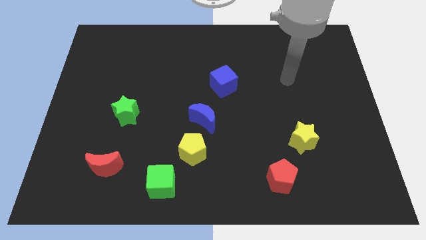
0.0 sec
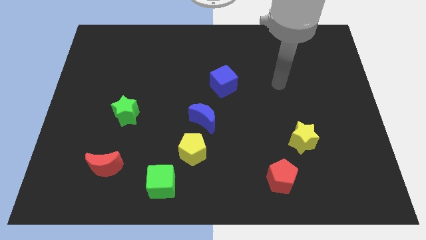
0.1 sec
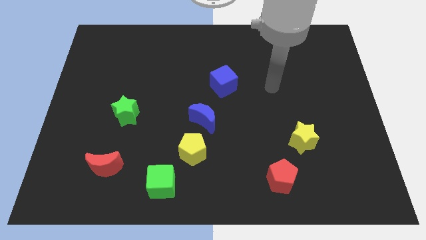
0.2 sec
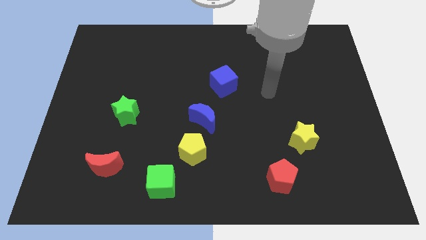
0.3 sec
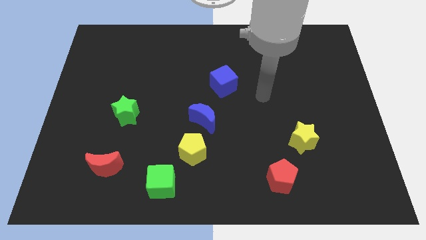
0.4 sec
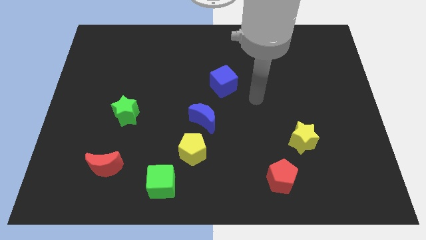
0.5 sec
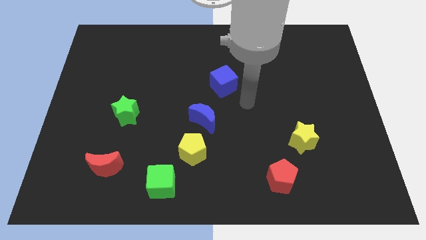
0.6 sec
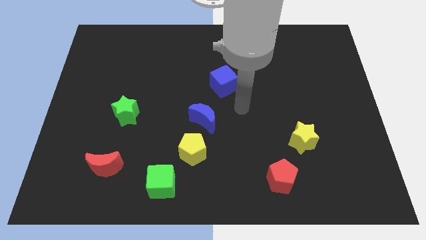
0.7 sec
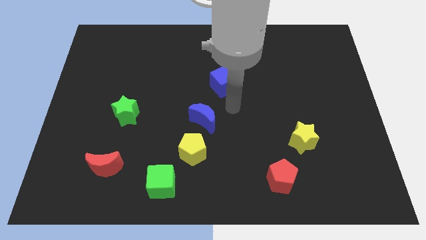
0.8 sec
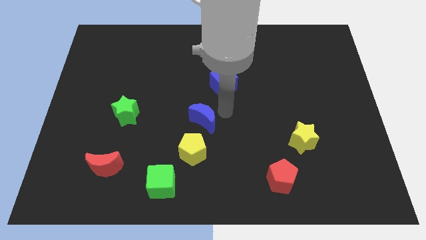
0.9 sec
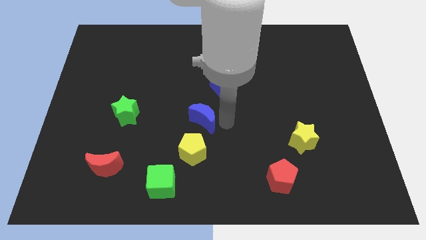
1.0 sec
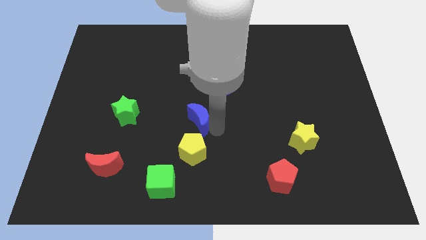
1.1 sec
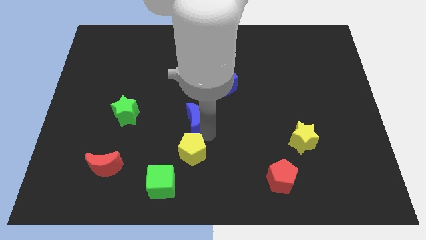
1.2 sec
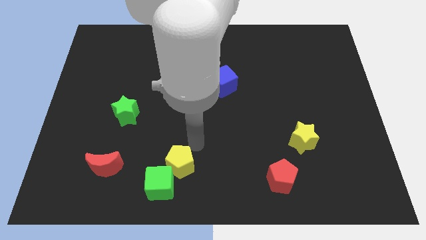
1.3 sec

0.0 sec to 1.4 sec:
move the blue moon away from the yellow pentagon

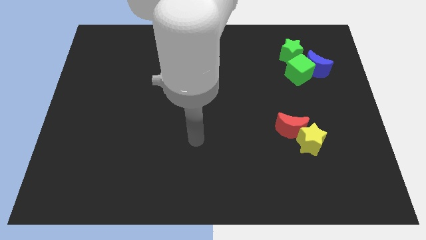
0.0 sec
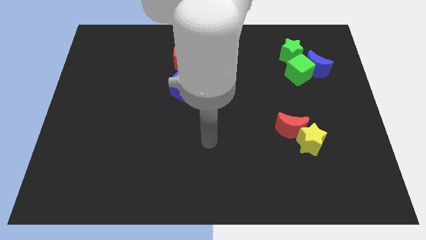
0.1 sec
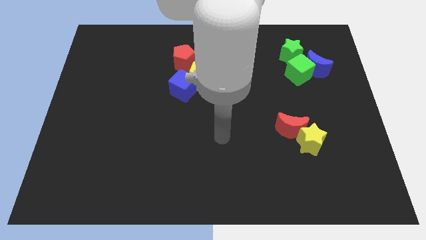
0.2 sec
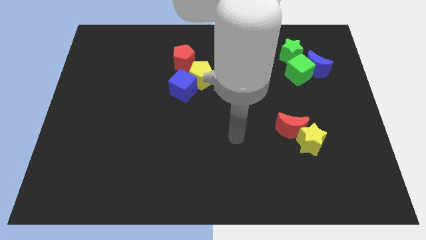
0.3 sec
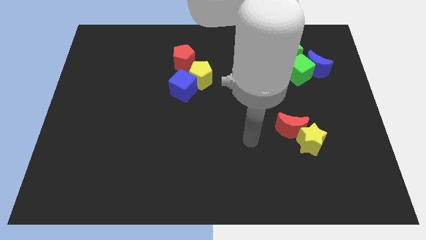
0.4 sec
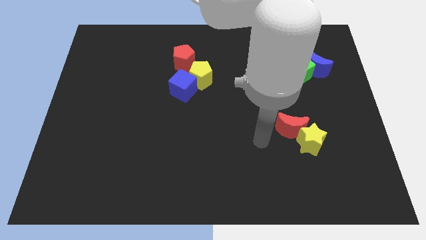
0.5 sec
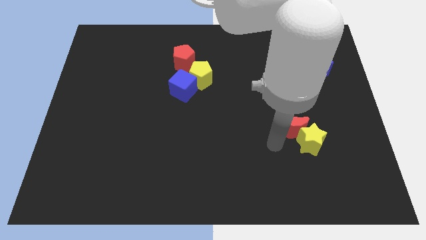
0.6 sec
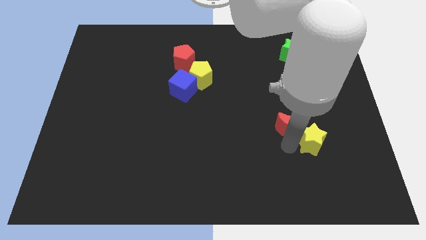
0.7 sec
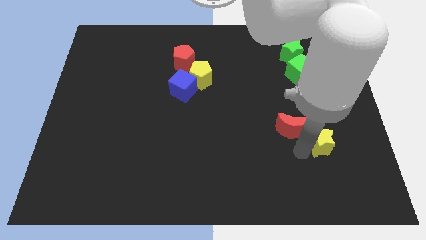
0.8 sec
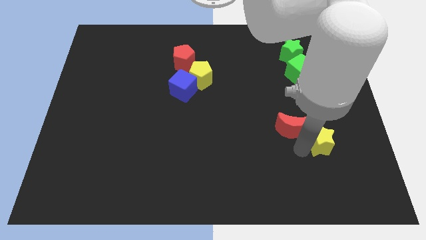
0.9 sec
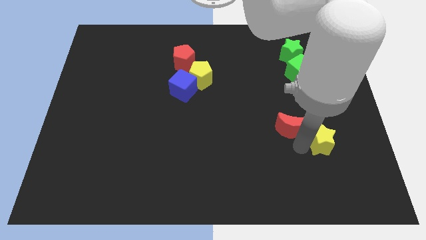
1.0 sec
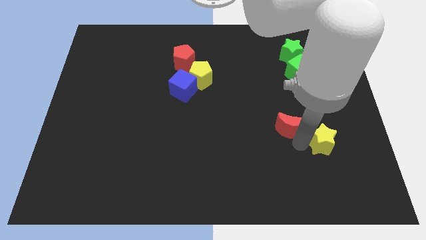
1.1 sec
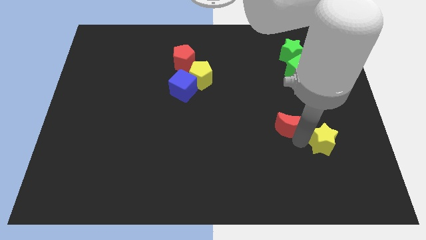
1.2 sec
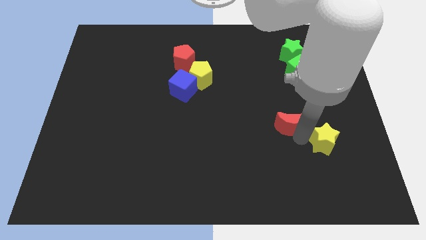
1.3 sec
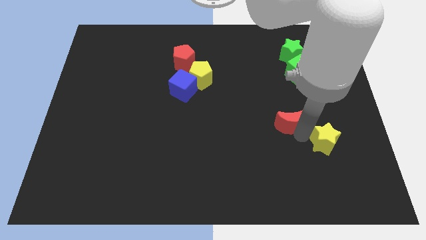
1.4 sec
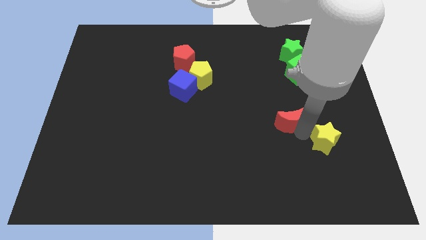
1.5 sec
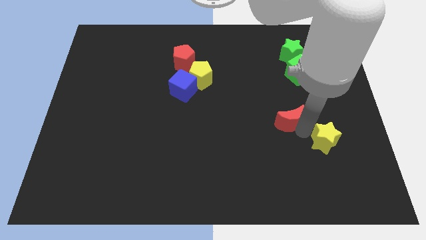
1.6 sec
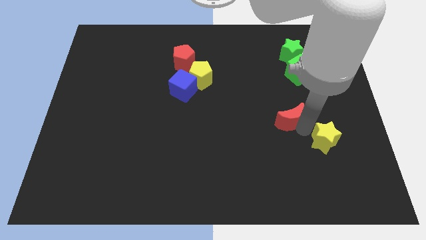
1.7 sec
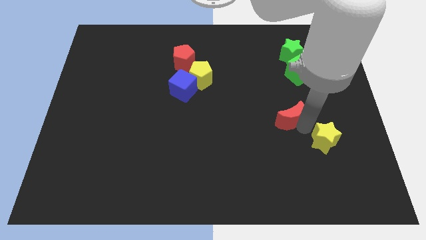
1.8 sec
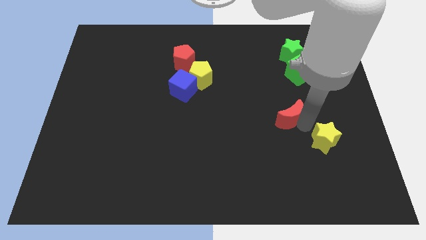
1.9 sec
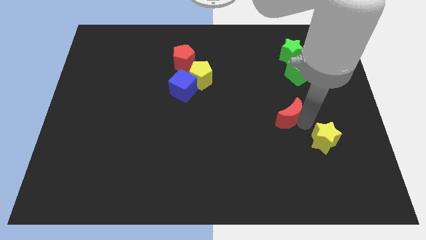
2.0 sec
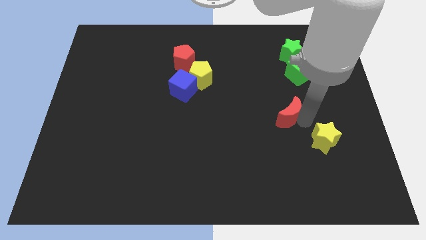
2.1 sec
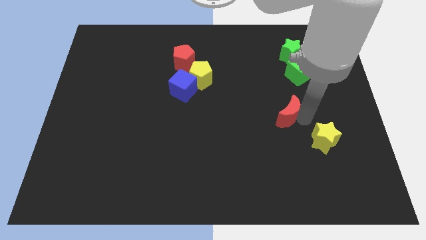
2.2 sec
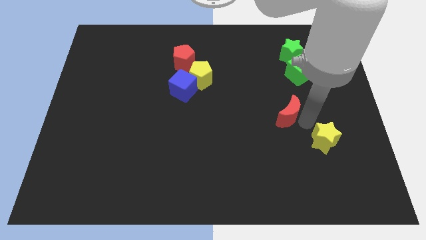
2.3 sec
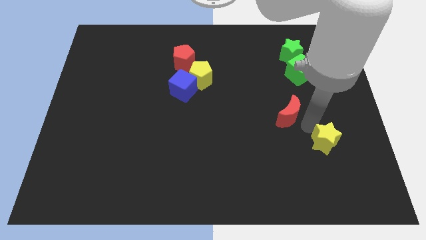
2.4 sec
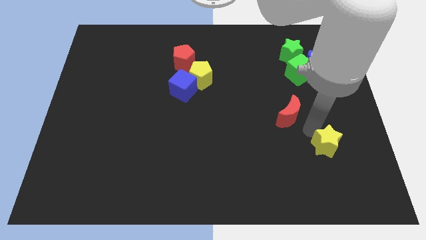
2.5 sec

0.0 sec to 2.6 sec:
separate the red moon from the yellow star

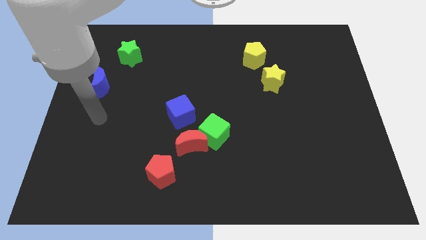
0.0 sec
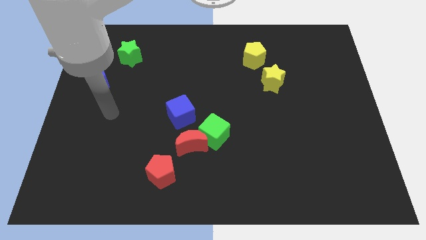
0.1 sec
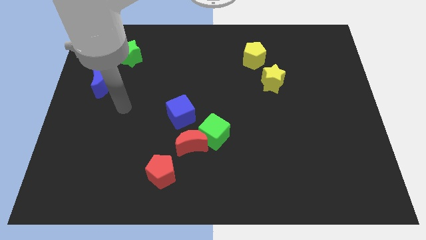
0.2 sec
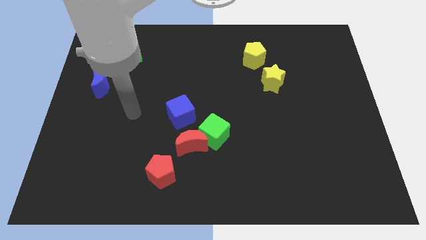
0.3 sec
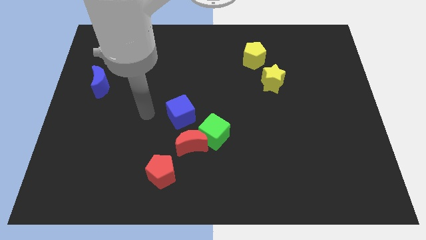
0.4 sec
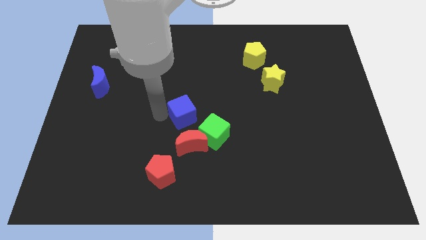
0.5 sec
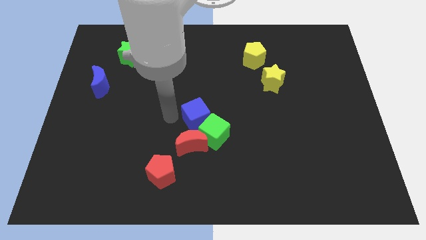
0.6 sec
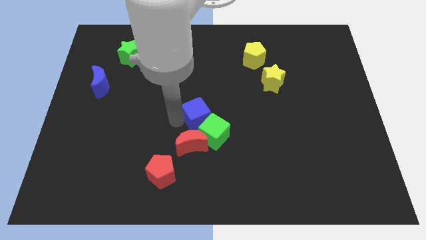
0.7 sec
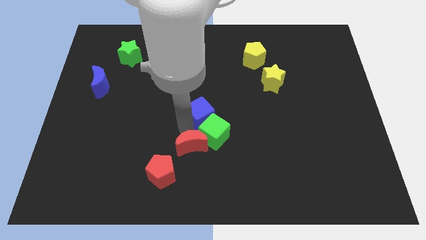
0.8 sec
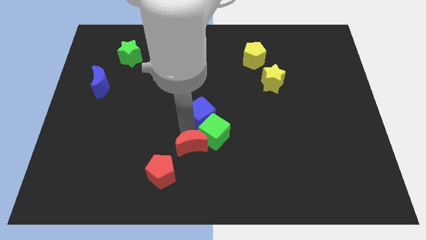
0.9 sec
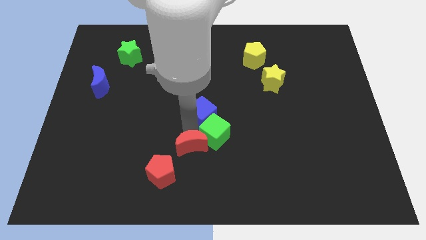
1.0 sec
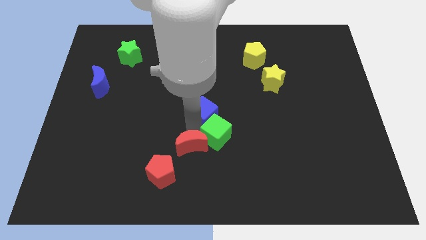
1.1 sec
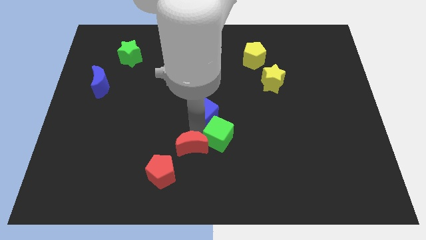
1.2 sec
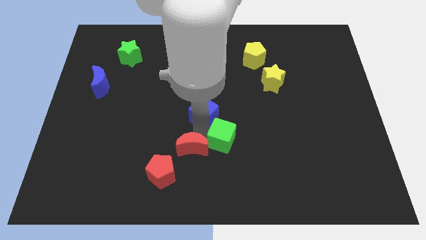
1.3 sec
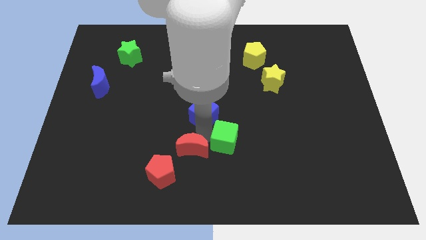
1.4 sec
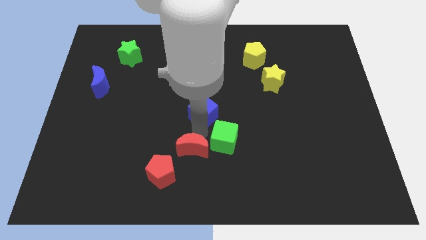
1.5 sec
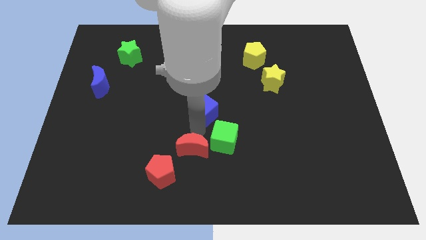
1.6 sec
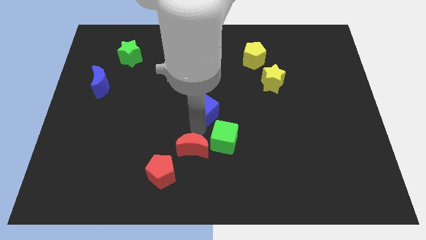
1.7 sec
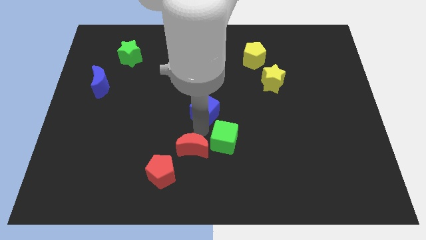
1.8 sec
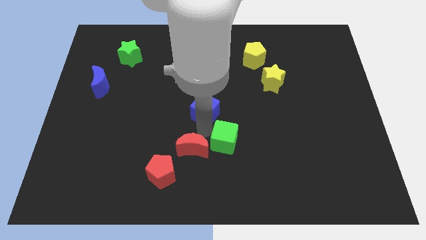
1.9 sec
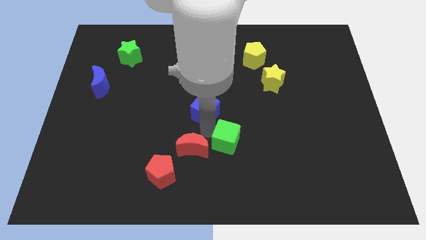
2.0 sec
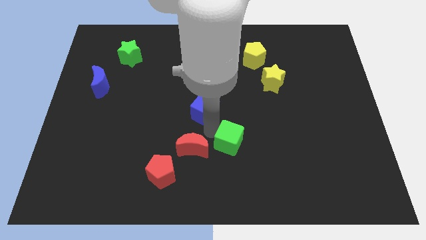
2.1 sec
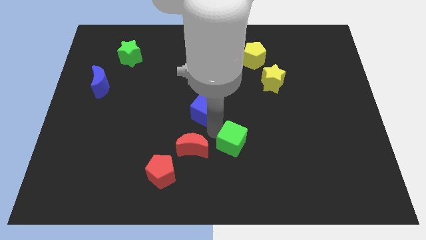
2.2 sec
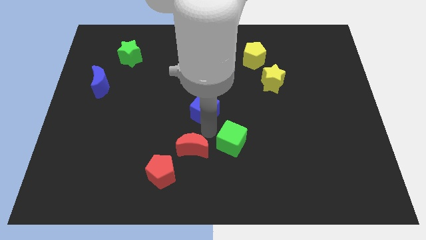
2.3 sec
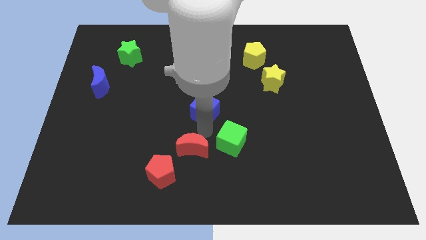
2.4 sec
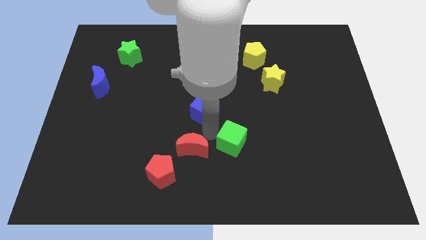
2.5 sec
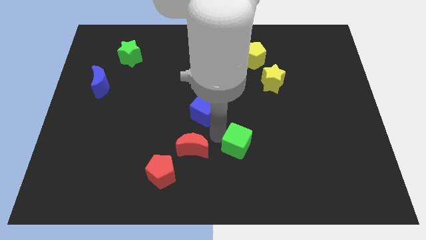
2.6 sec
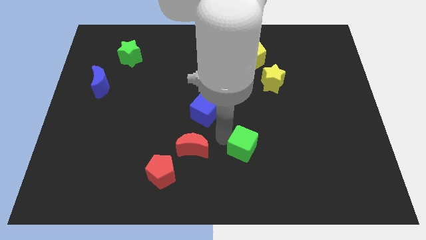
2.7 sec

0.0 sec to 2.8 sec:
pull the green cube apart from the red moon and blue cube

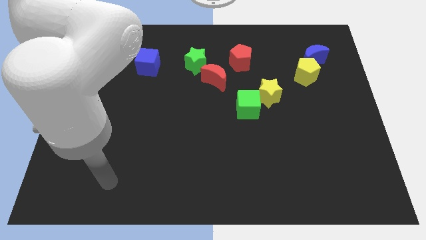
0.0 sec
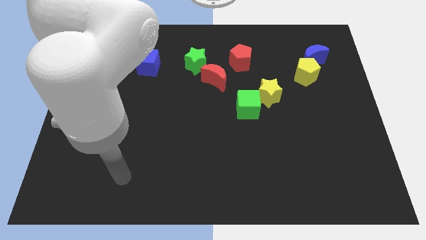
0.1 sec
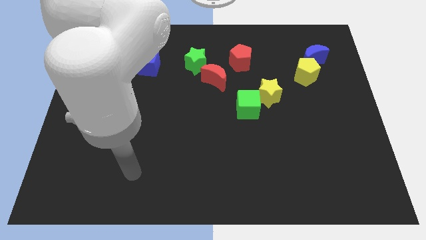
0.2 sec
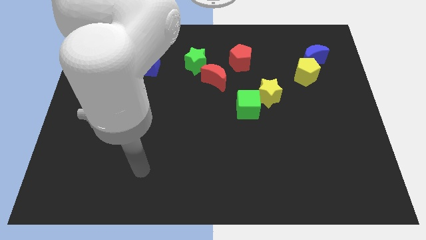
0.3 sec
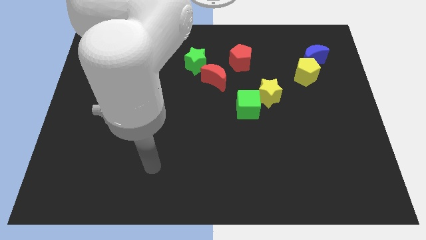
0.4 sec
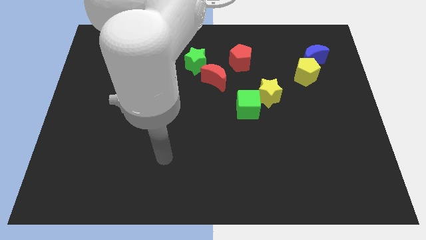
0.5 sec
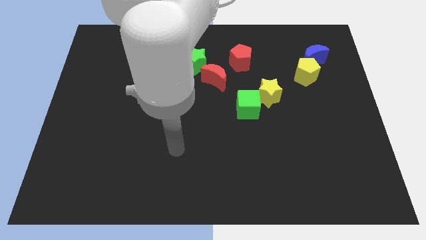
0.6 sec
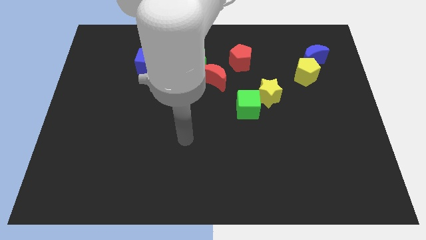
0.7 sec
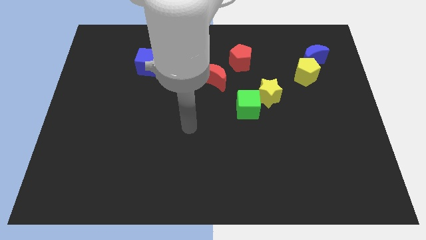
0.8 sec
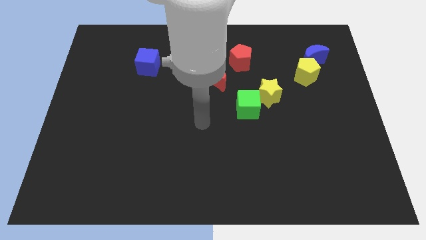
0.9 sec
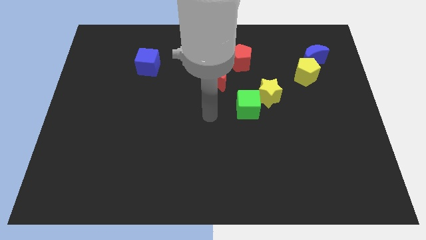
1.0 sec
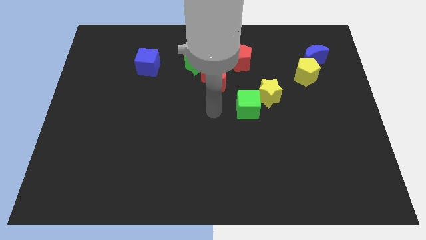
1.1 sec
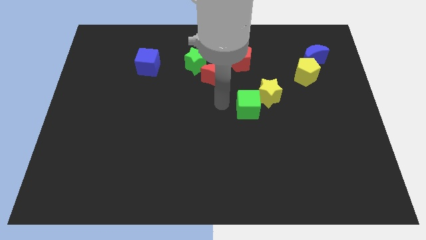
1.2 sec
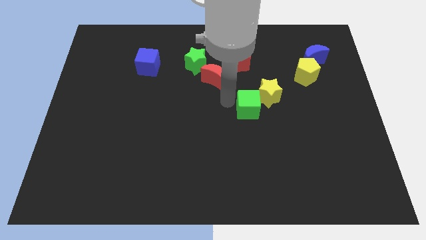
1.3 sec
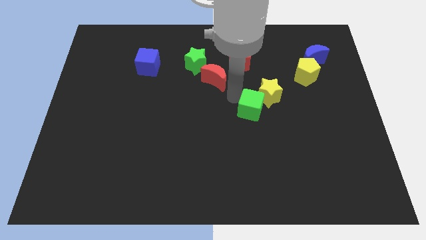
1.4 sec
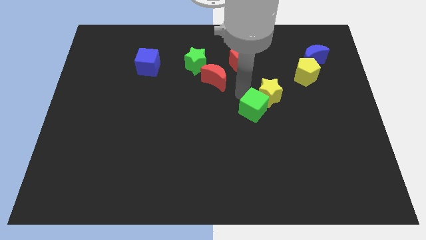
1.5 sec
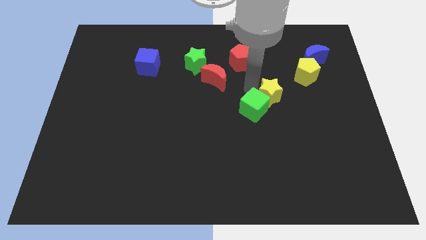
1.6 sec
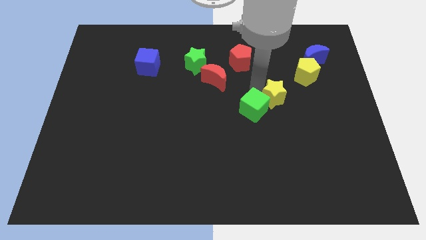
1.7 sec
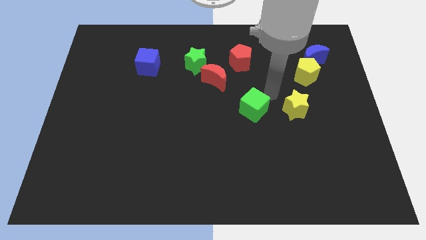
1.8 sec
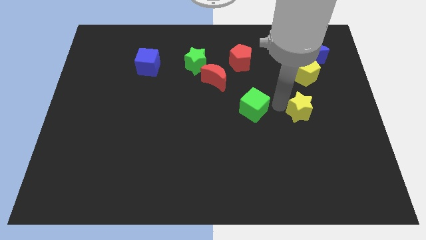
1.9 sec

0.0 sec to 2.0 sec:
pull the green cube apart from the yellow star

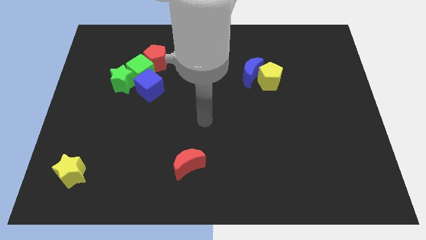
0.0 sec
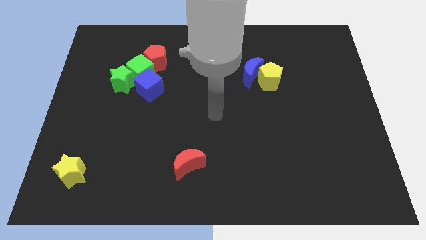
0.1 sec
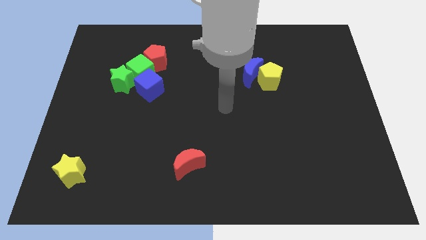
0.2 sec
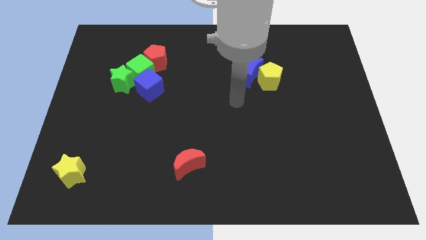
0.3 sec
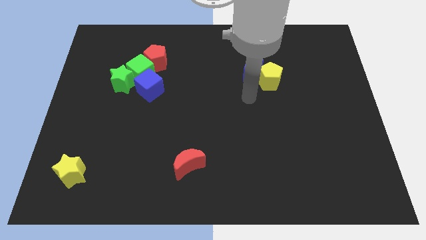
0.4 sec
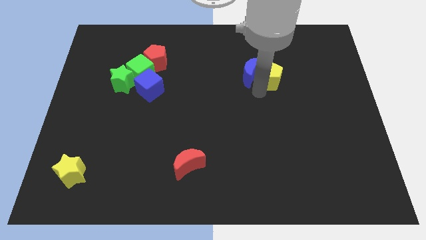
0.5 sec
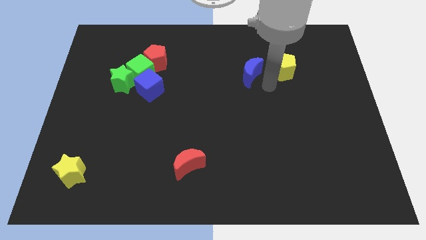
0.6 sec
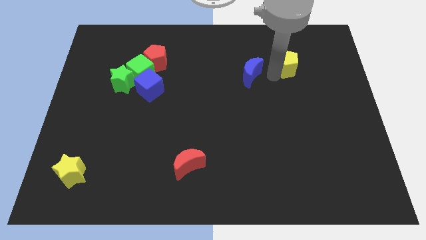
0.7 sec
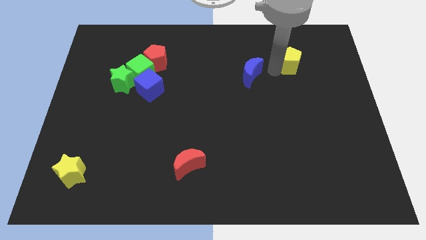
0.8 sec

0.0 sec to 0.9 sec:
separate the blue moon from the yellow pentagon
